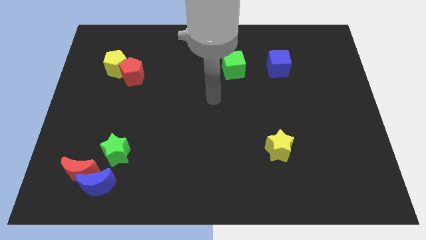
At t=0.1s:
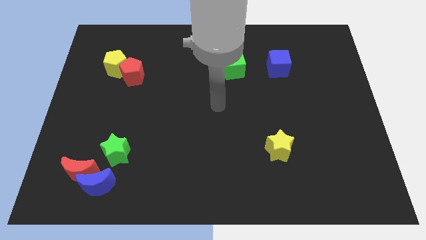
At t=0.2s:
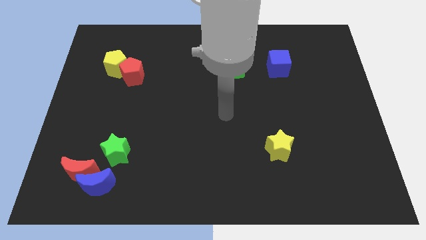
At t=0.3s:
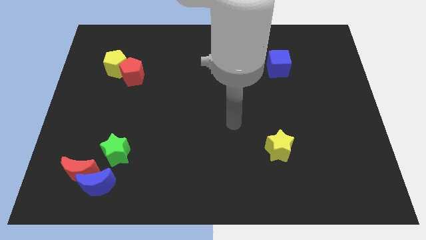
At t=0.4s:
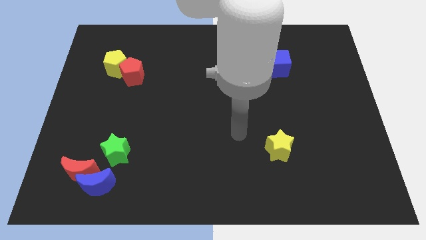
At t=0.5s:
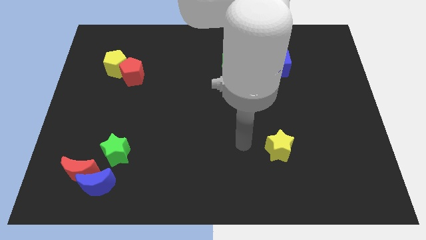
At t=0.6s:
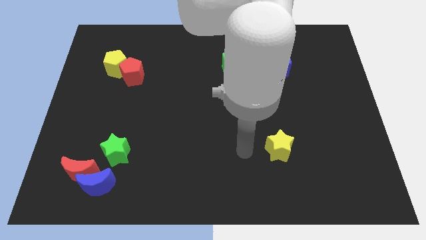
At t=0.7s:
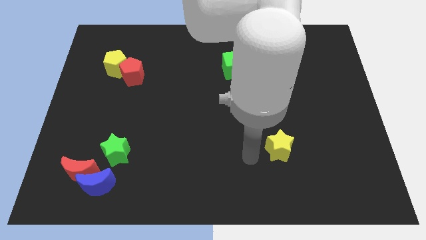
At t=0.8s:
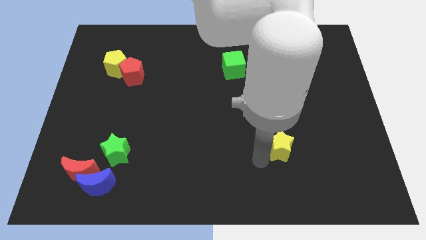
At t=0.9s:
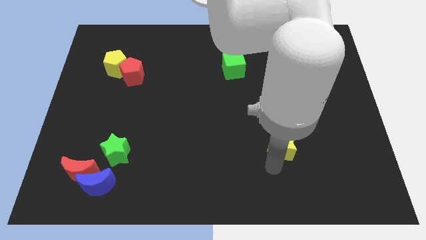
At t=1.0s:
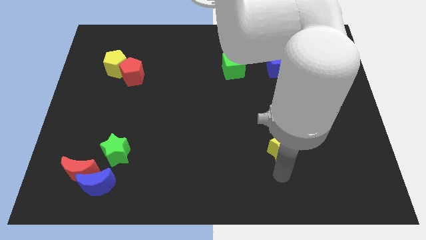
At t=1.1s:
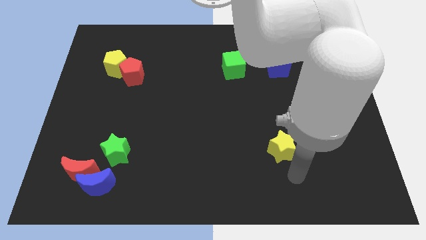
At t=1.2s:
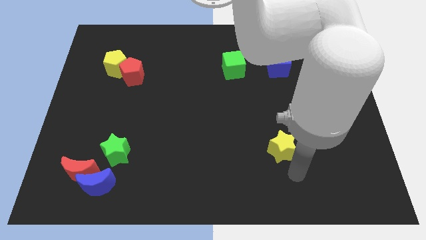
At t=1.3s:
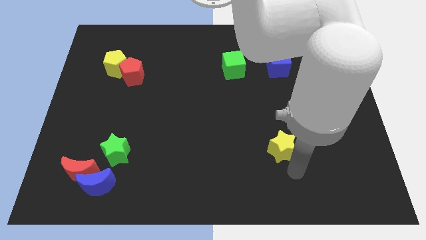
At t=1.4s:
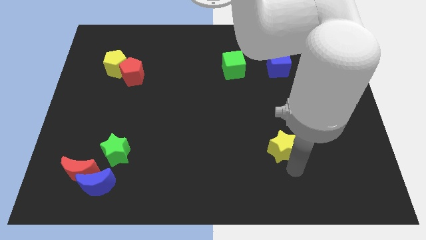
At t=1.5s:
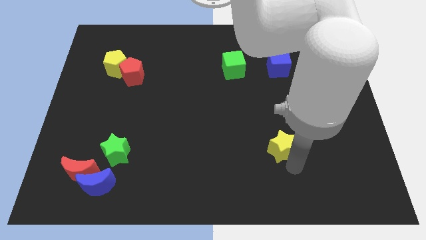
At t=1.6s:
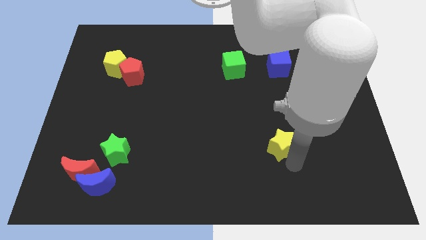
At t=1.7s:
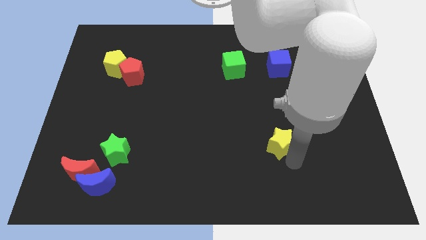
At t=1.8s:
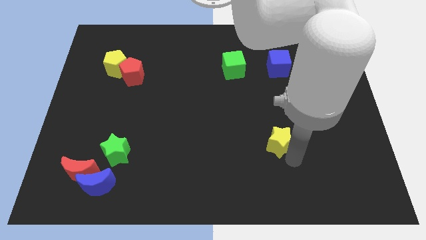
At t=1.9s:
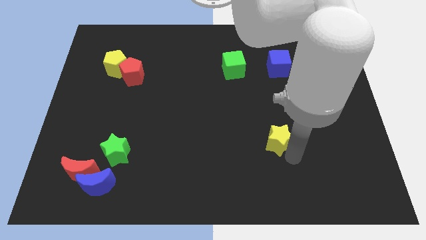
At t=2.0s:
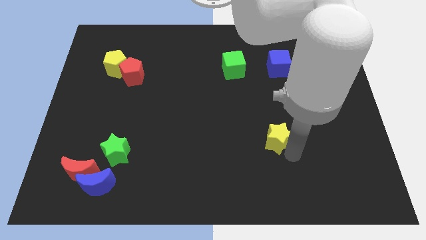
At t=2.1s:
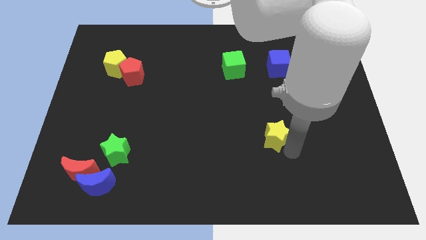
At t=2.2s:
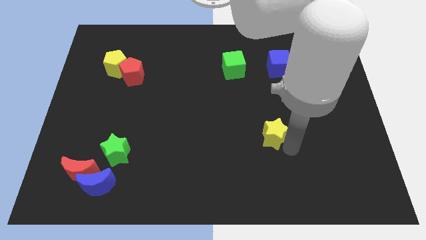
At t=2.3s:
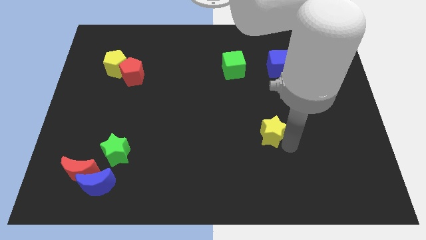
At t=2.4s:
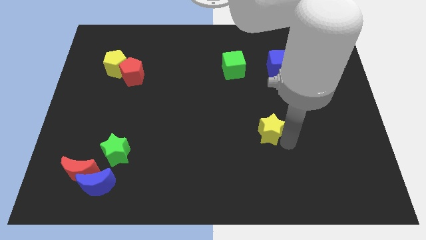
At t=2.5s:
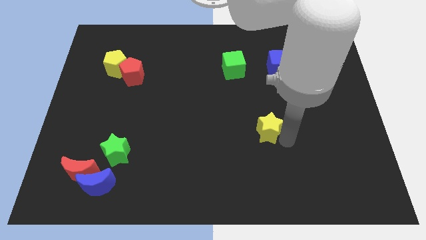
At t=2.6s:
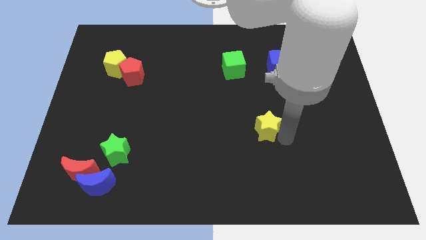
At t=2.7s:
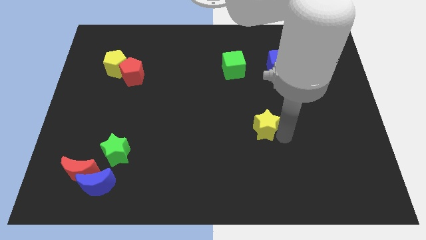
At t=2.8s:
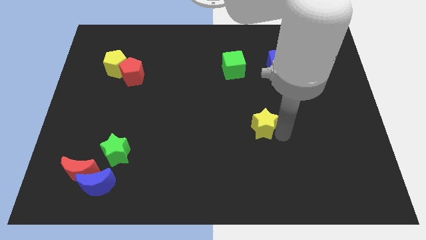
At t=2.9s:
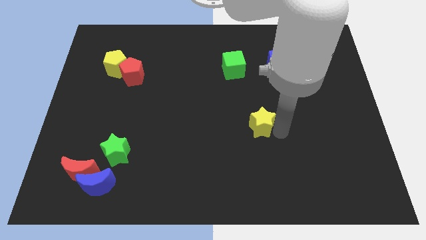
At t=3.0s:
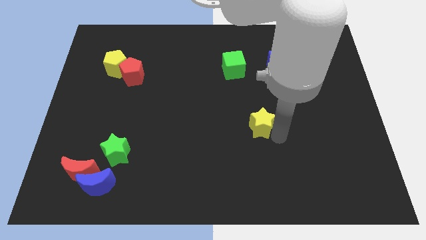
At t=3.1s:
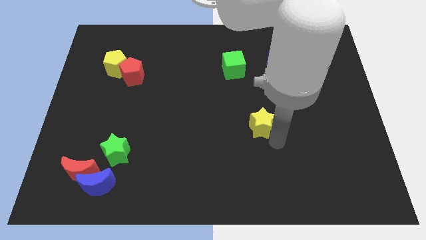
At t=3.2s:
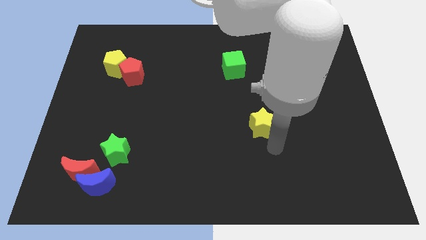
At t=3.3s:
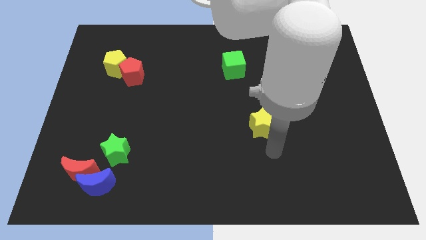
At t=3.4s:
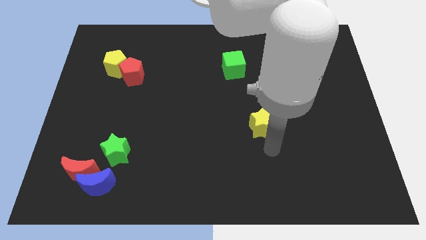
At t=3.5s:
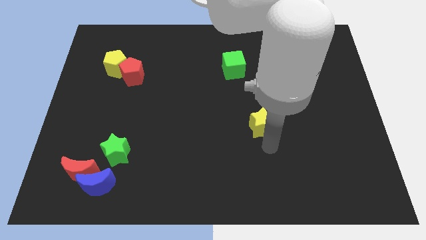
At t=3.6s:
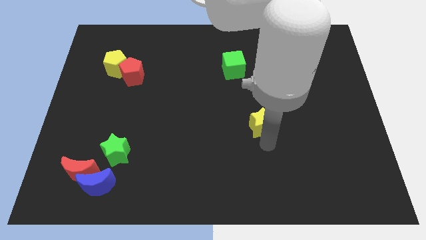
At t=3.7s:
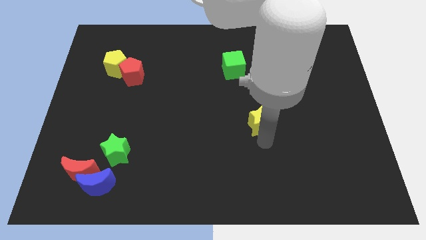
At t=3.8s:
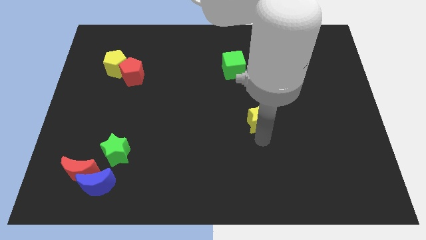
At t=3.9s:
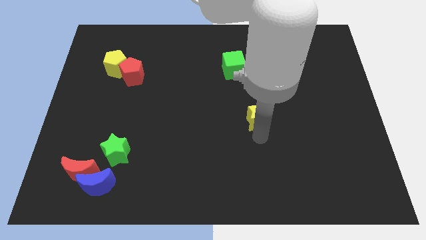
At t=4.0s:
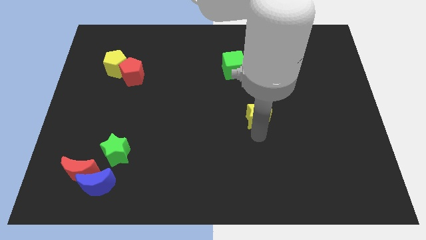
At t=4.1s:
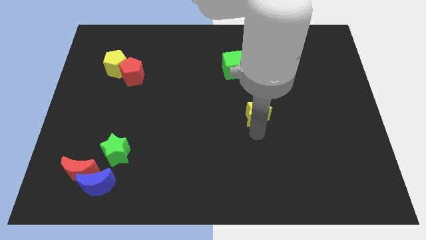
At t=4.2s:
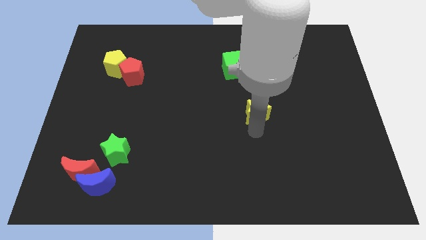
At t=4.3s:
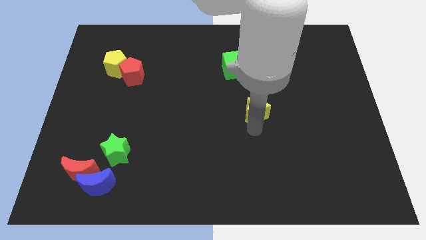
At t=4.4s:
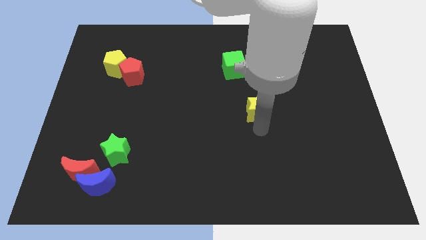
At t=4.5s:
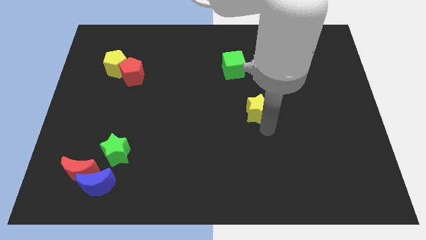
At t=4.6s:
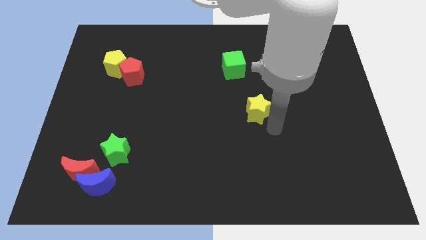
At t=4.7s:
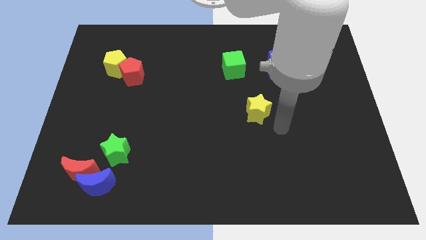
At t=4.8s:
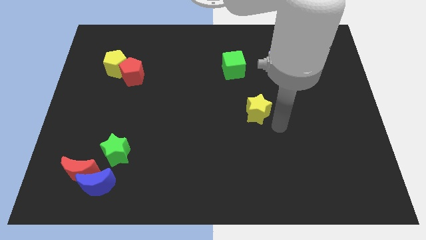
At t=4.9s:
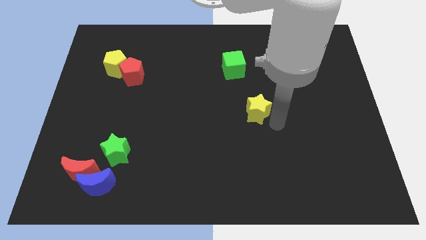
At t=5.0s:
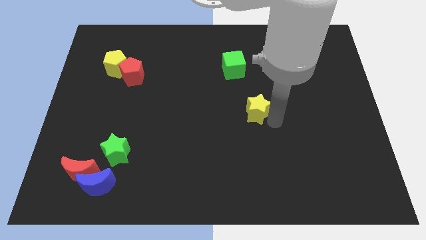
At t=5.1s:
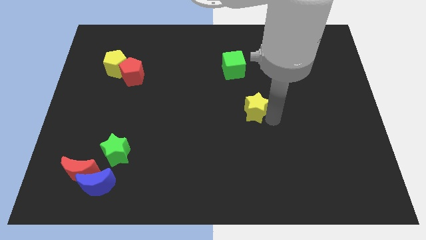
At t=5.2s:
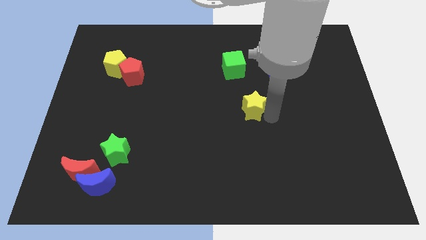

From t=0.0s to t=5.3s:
push the yellow star below the green cube

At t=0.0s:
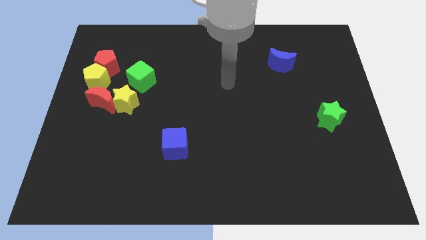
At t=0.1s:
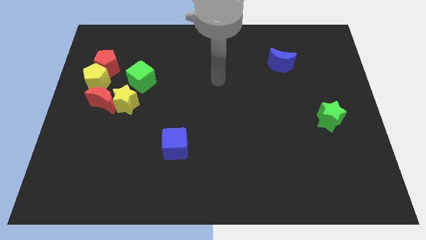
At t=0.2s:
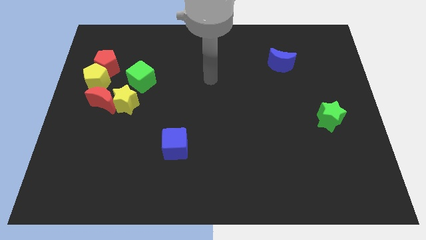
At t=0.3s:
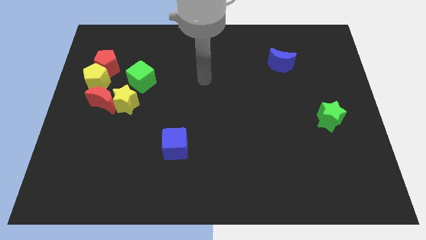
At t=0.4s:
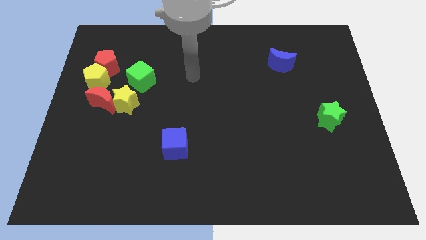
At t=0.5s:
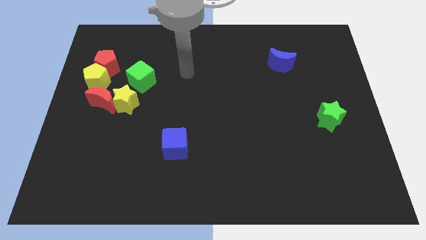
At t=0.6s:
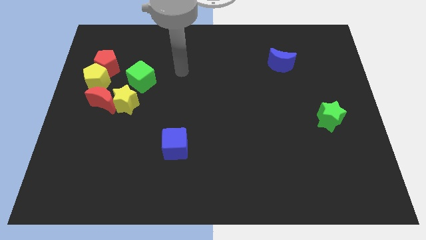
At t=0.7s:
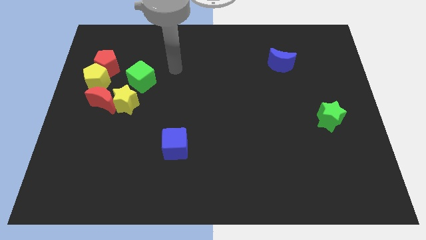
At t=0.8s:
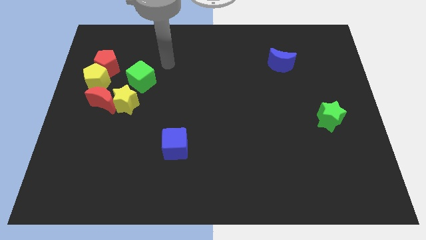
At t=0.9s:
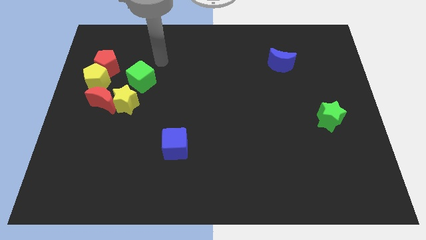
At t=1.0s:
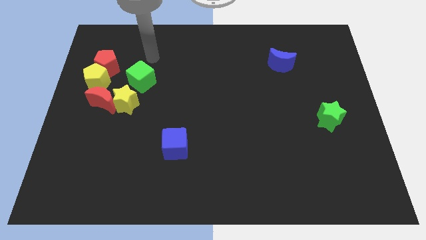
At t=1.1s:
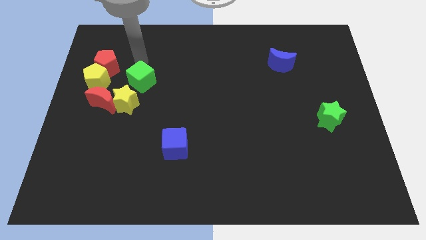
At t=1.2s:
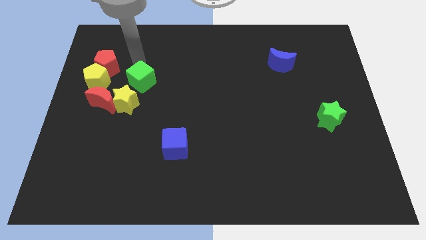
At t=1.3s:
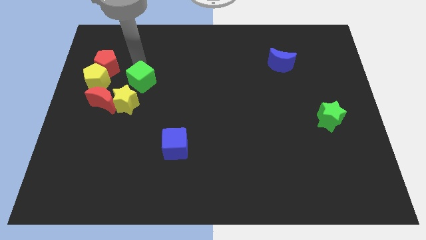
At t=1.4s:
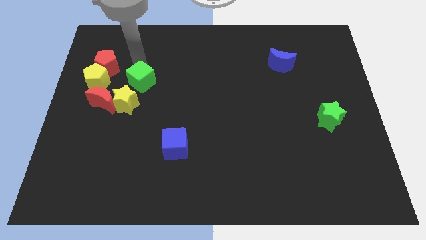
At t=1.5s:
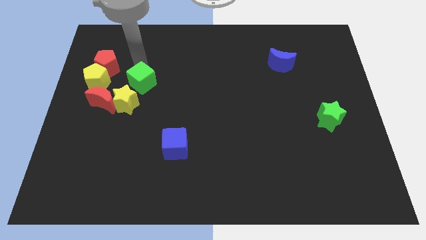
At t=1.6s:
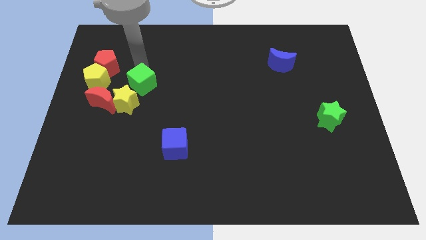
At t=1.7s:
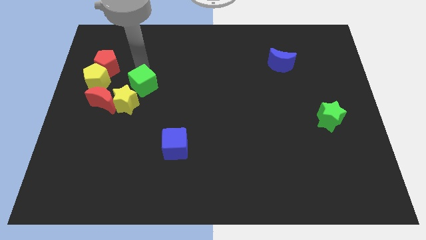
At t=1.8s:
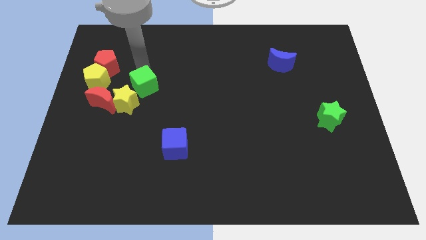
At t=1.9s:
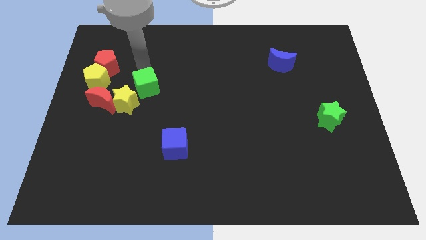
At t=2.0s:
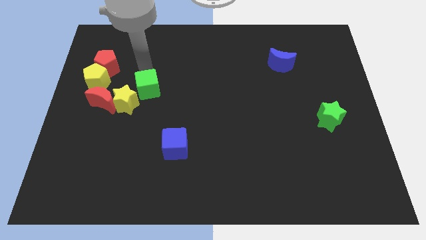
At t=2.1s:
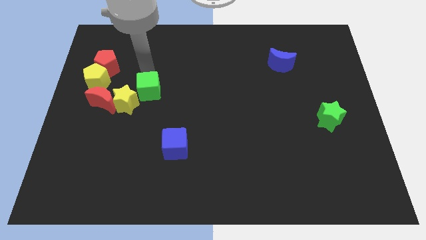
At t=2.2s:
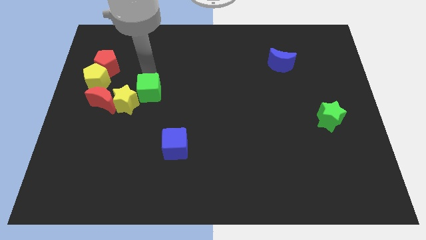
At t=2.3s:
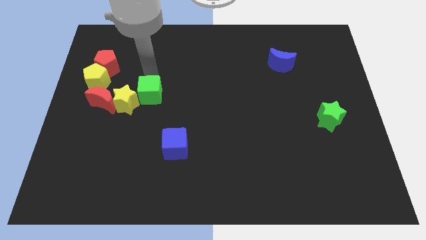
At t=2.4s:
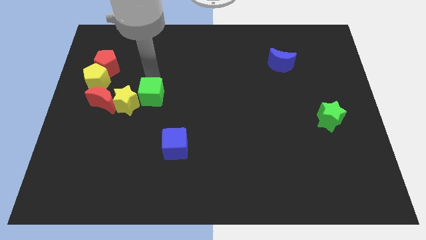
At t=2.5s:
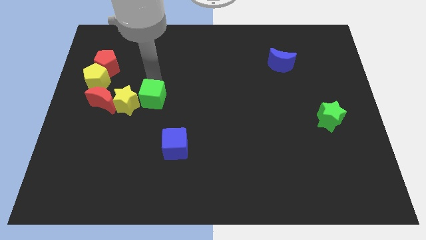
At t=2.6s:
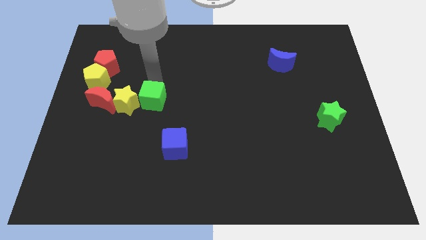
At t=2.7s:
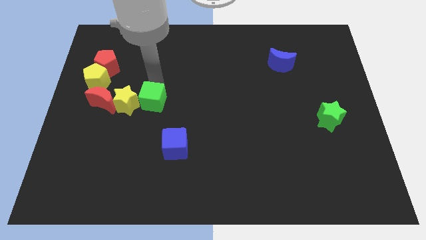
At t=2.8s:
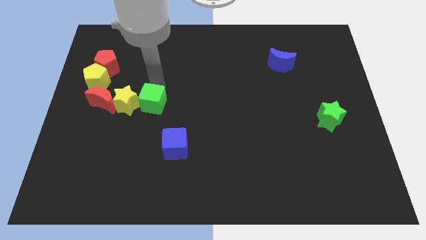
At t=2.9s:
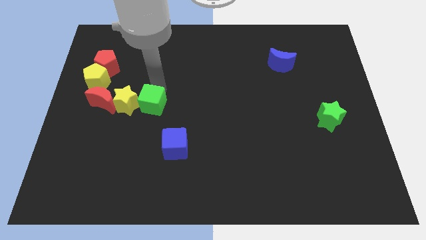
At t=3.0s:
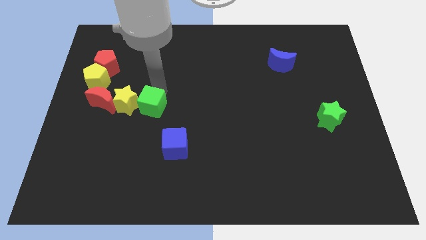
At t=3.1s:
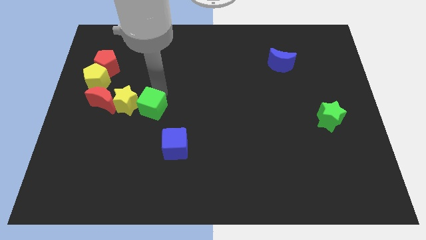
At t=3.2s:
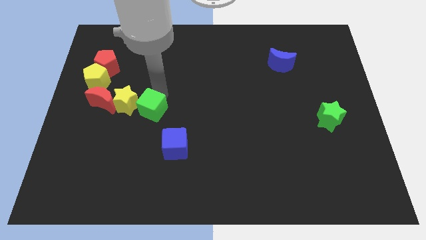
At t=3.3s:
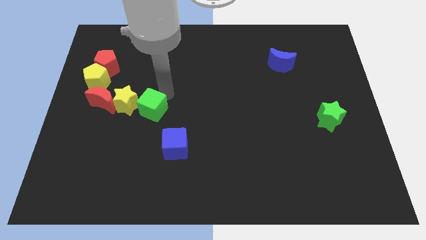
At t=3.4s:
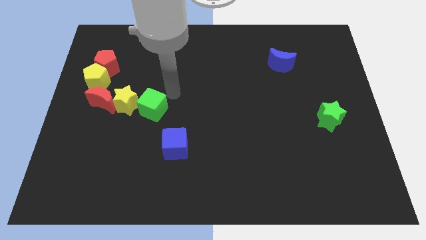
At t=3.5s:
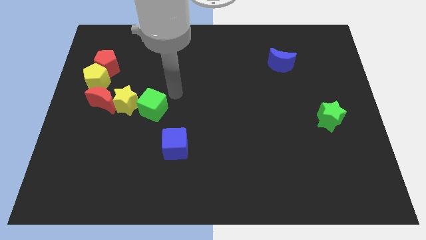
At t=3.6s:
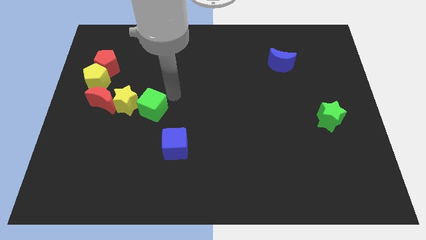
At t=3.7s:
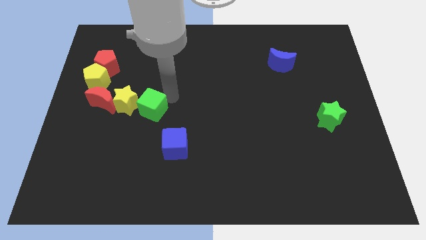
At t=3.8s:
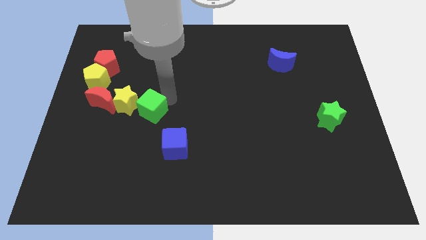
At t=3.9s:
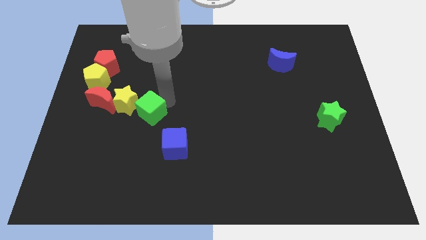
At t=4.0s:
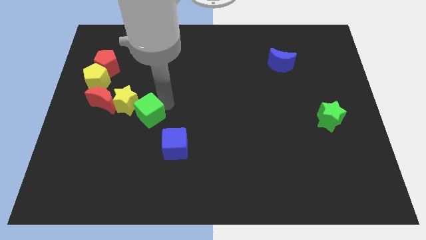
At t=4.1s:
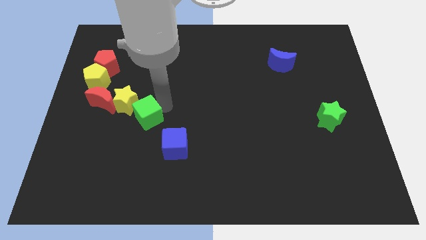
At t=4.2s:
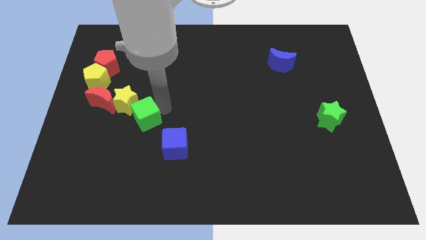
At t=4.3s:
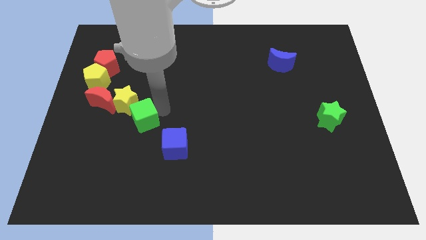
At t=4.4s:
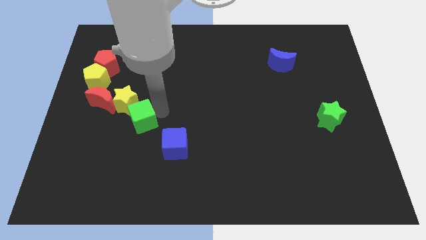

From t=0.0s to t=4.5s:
put the green cube to the bottom of the yellow star
